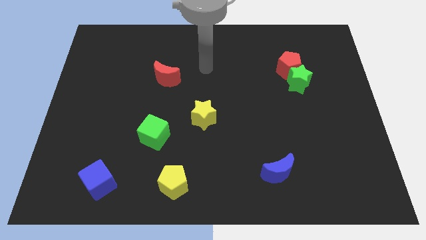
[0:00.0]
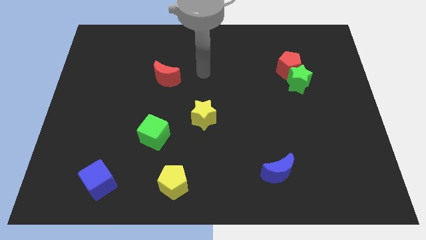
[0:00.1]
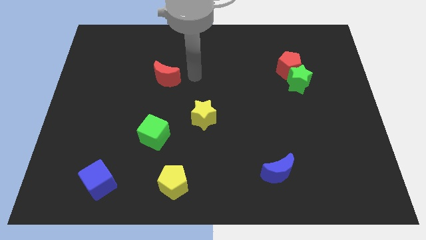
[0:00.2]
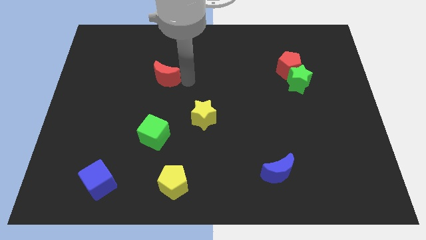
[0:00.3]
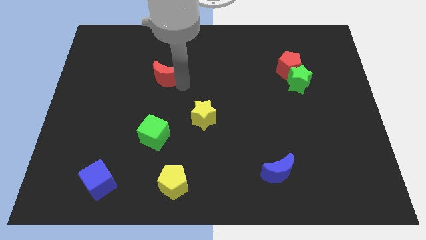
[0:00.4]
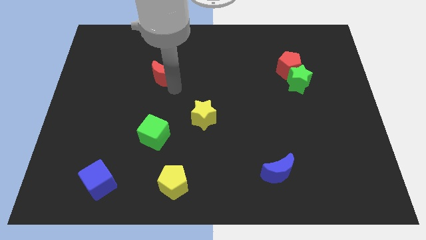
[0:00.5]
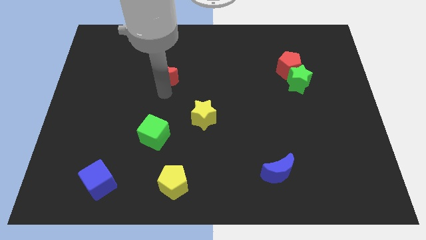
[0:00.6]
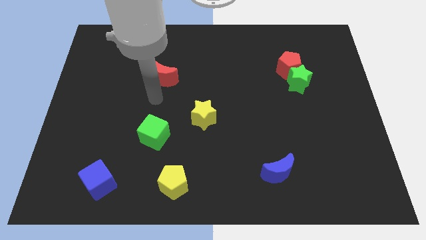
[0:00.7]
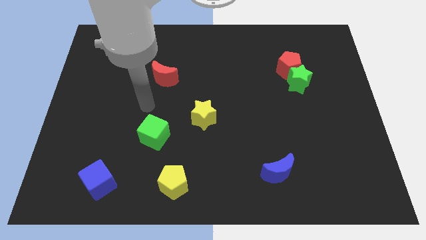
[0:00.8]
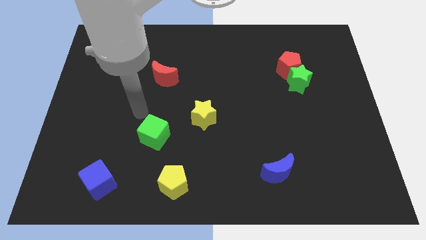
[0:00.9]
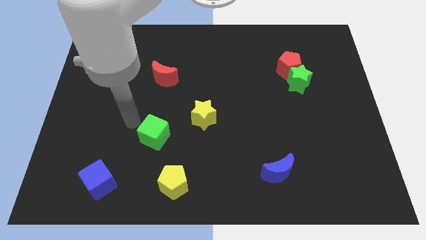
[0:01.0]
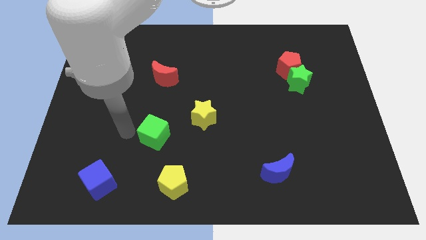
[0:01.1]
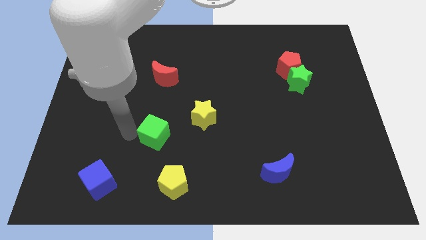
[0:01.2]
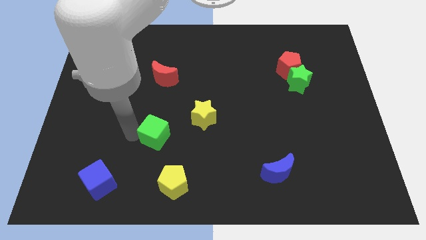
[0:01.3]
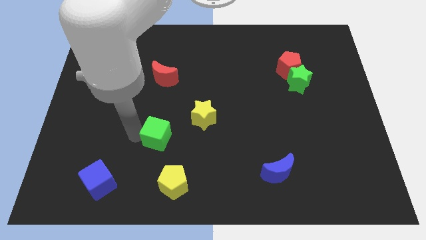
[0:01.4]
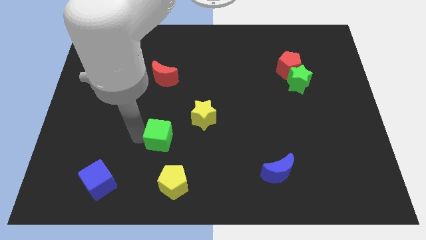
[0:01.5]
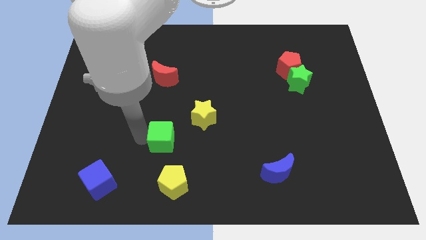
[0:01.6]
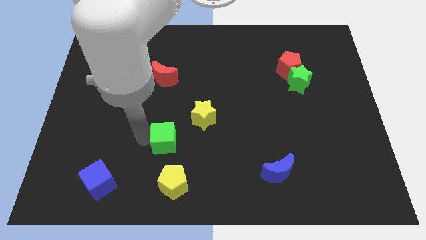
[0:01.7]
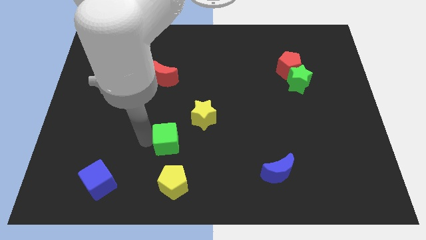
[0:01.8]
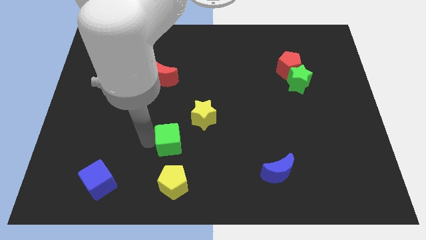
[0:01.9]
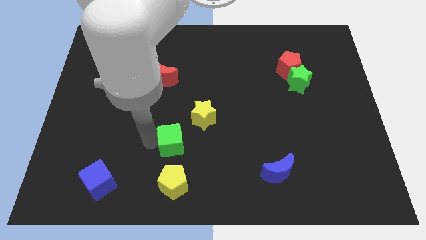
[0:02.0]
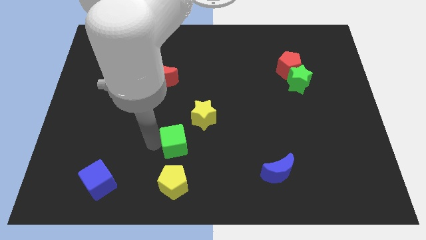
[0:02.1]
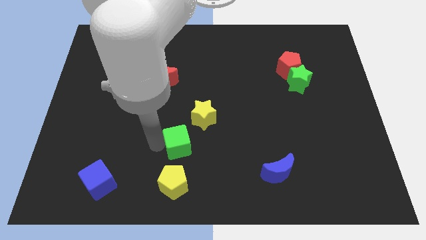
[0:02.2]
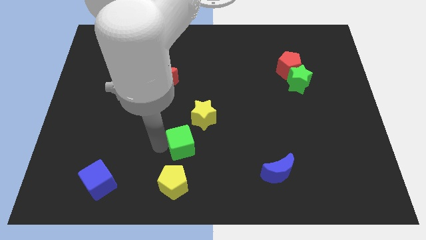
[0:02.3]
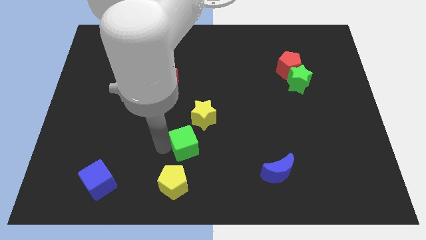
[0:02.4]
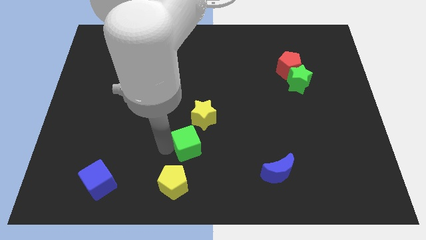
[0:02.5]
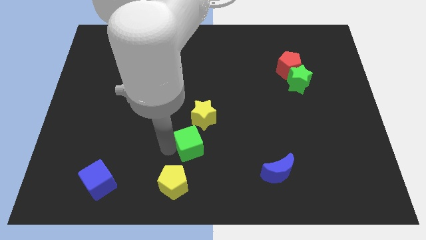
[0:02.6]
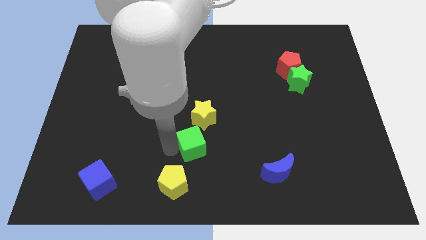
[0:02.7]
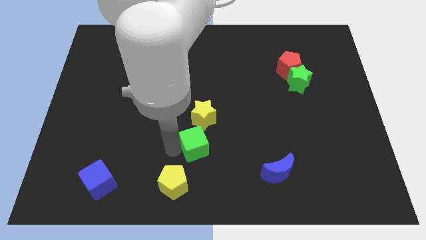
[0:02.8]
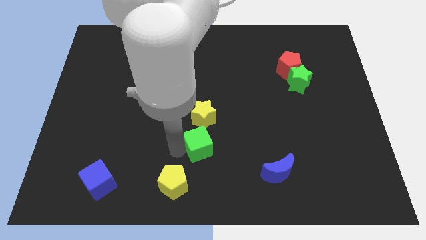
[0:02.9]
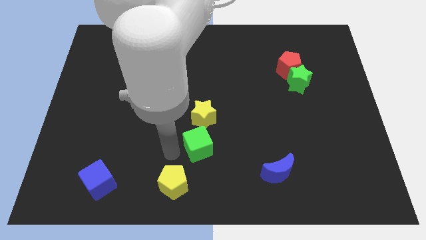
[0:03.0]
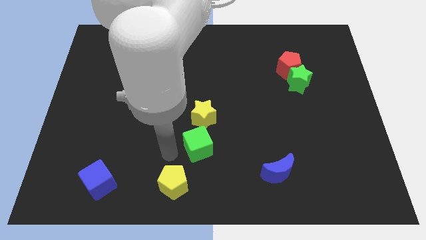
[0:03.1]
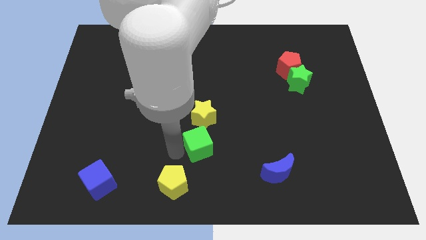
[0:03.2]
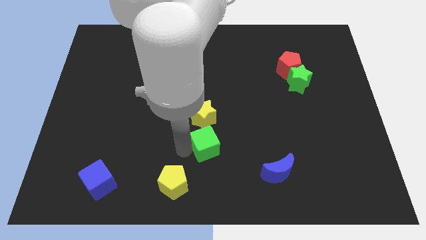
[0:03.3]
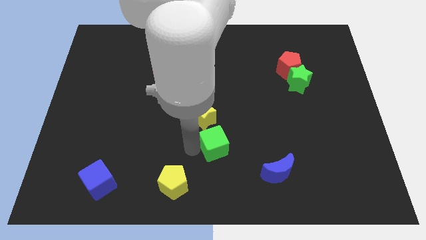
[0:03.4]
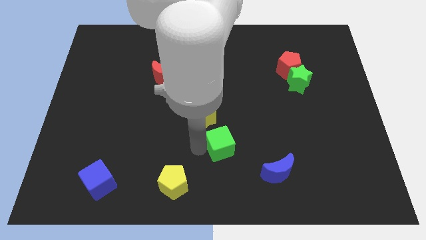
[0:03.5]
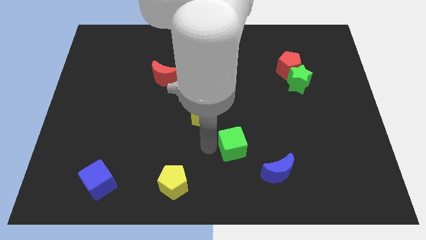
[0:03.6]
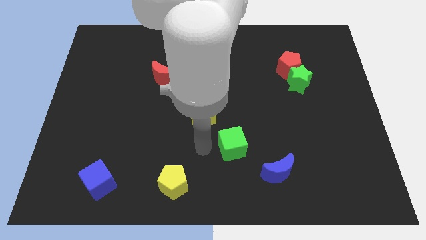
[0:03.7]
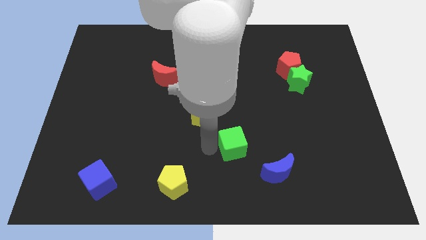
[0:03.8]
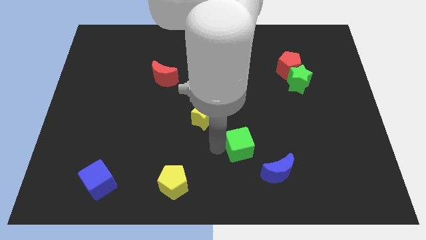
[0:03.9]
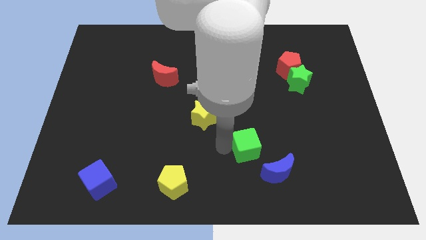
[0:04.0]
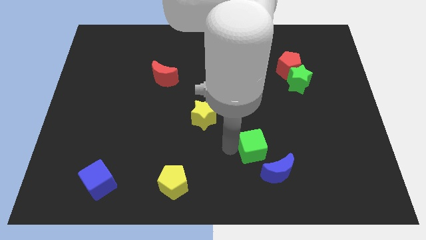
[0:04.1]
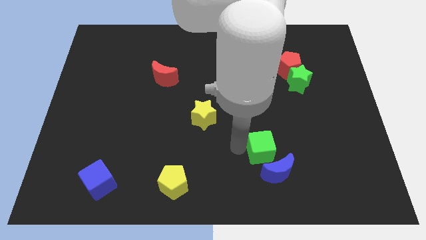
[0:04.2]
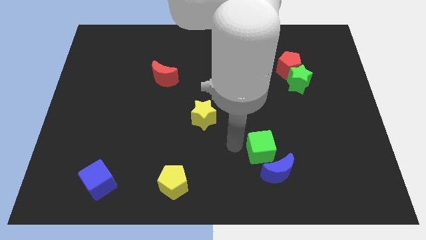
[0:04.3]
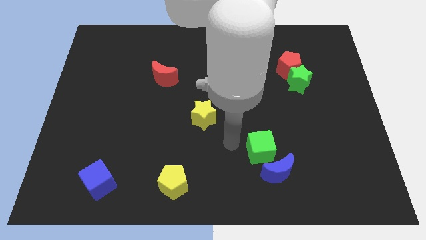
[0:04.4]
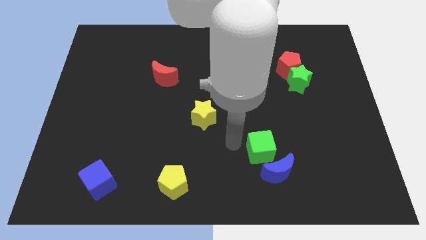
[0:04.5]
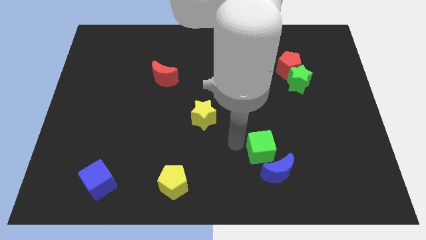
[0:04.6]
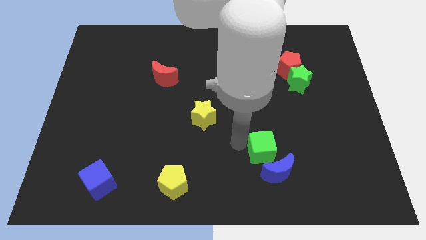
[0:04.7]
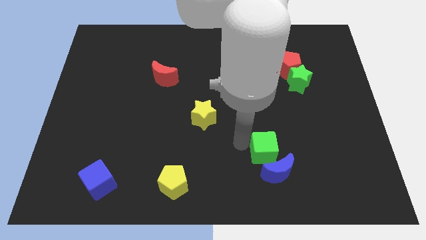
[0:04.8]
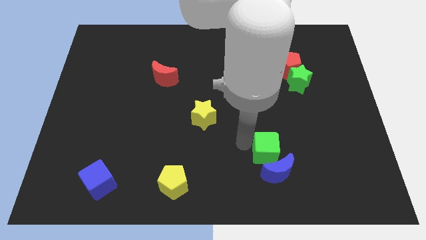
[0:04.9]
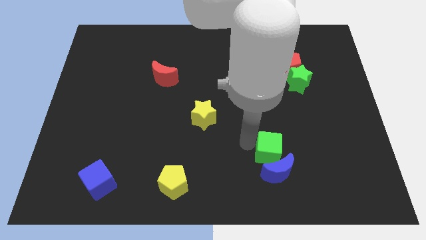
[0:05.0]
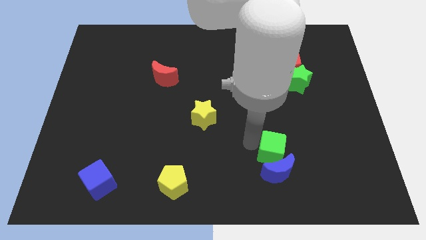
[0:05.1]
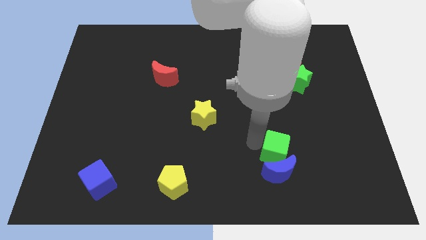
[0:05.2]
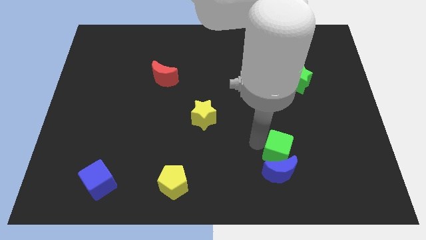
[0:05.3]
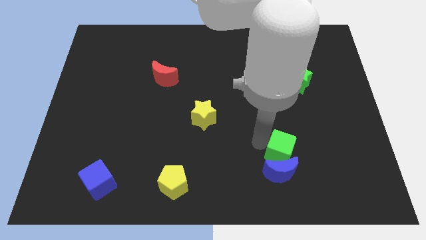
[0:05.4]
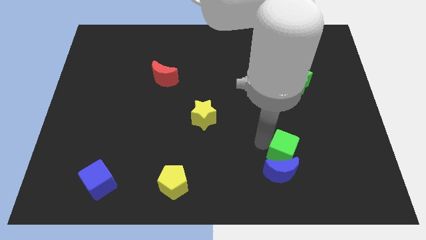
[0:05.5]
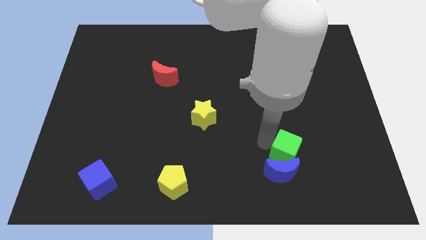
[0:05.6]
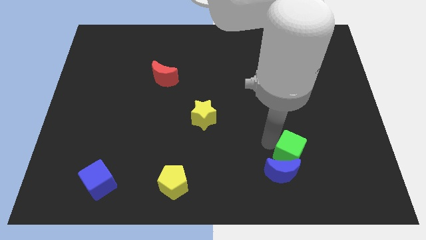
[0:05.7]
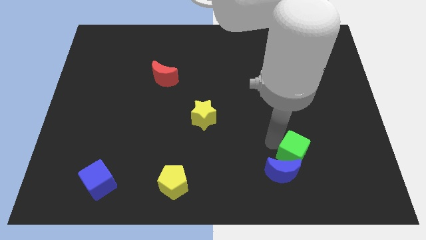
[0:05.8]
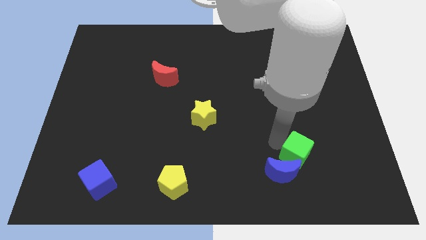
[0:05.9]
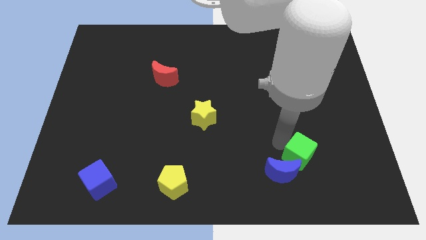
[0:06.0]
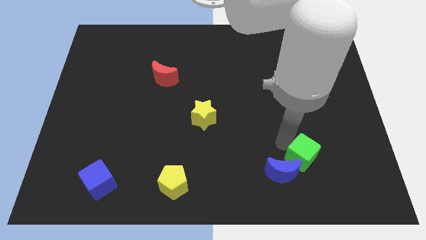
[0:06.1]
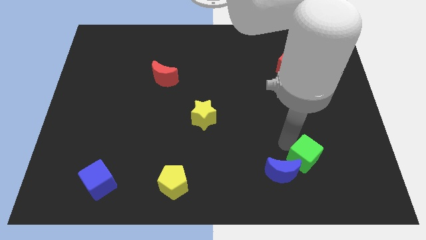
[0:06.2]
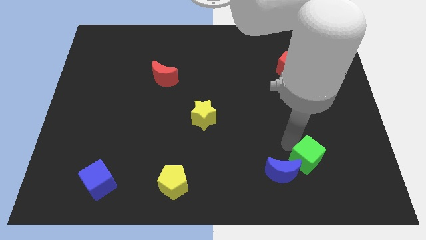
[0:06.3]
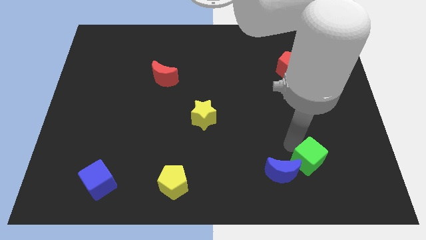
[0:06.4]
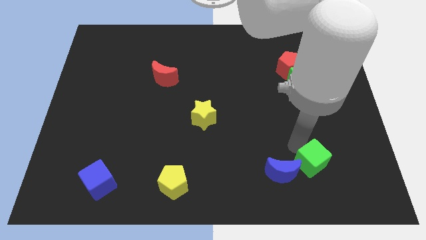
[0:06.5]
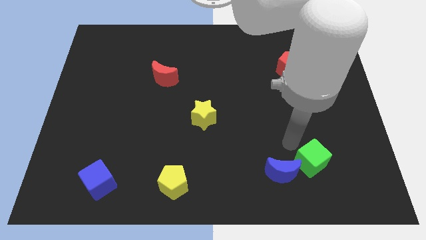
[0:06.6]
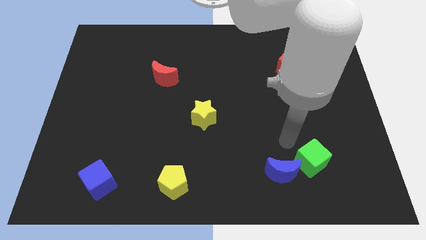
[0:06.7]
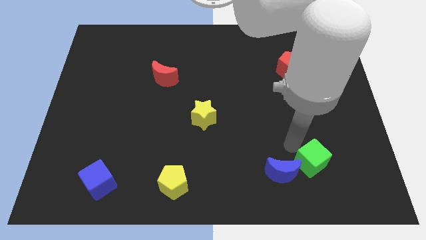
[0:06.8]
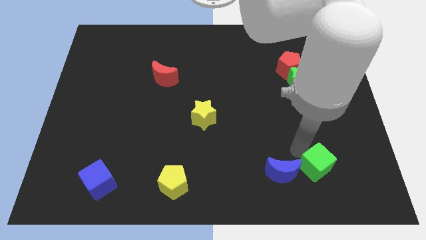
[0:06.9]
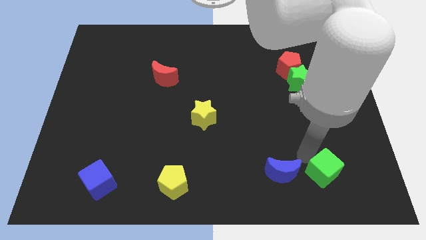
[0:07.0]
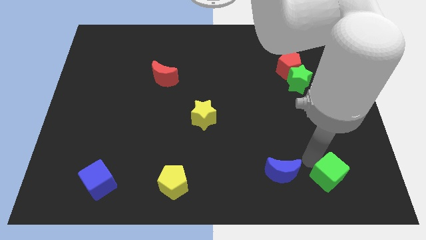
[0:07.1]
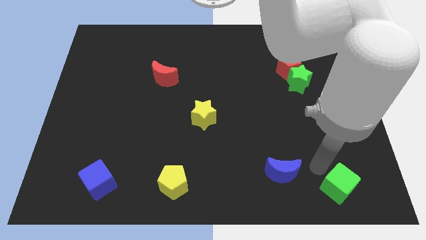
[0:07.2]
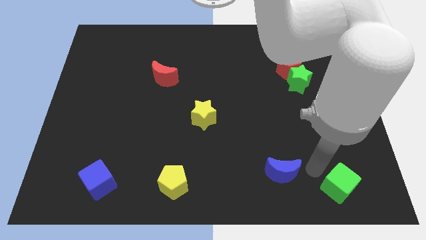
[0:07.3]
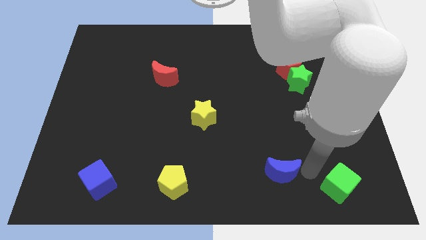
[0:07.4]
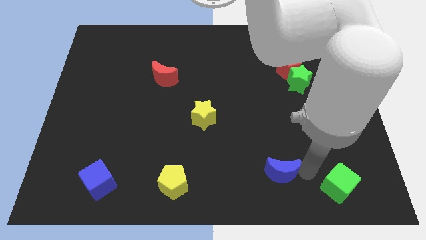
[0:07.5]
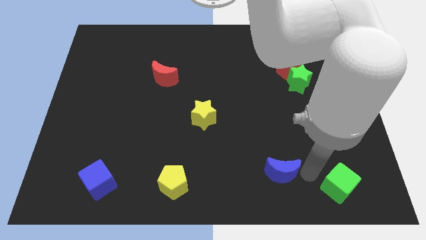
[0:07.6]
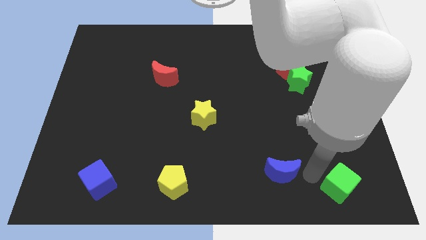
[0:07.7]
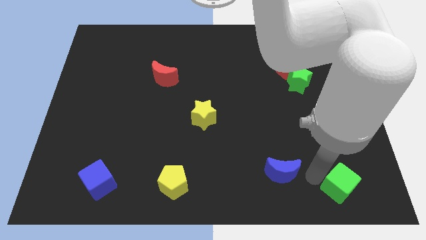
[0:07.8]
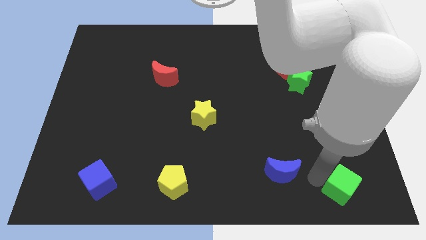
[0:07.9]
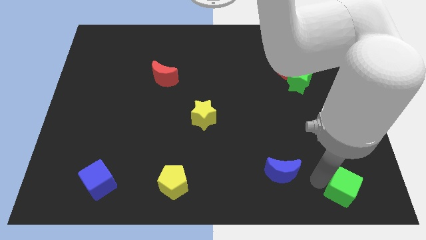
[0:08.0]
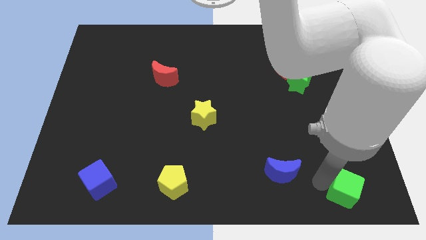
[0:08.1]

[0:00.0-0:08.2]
slide the green cube to the bottom right corner
